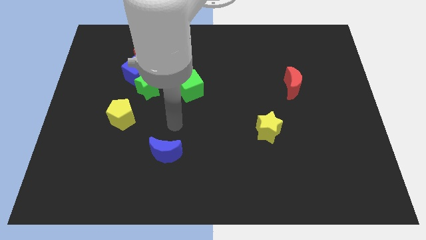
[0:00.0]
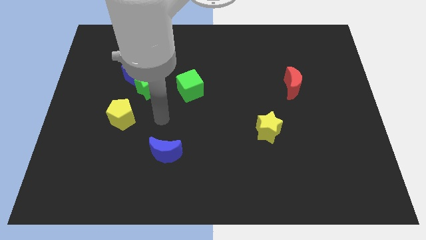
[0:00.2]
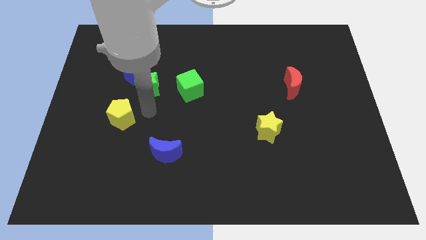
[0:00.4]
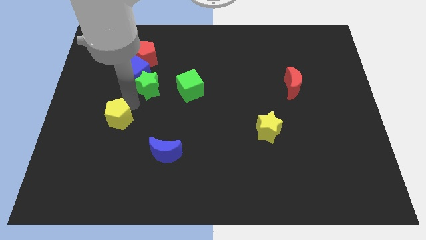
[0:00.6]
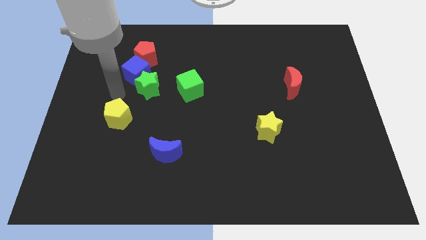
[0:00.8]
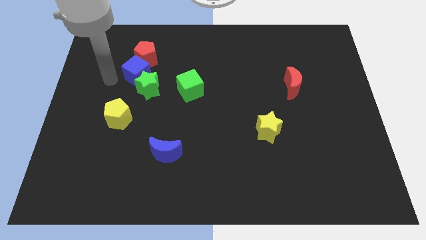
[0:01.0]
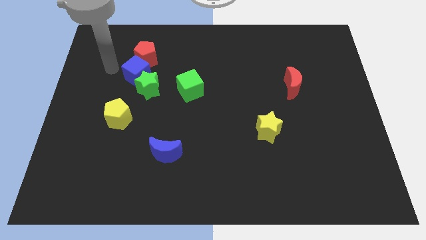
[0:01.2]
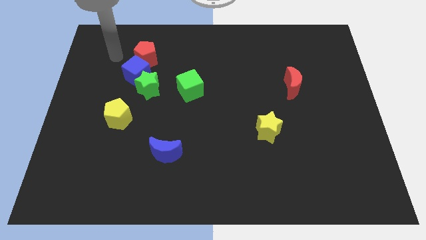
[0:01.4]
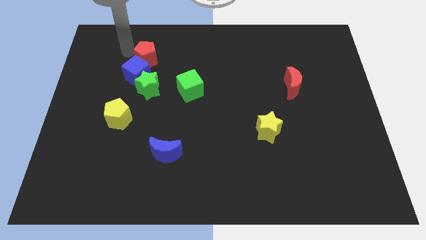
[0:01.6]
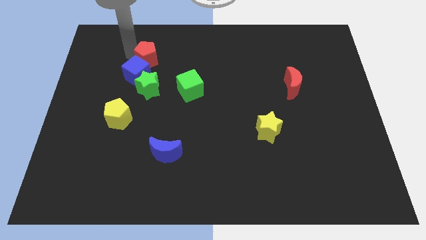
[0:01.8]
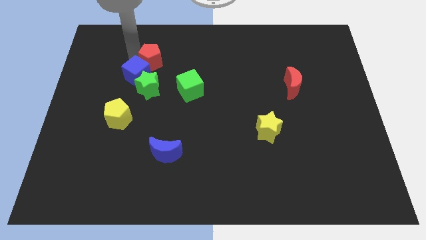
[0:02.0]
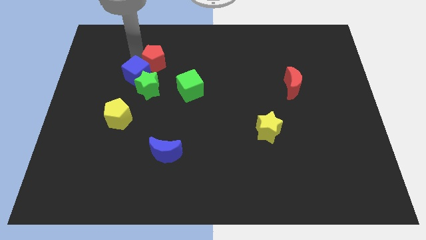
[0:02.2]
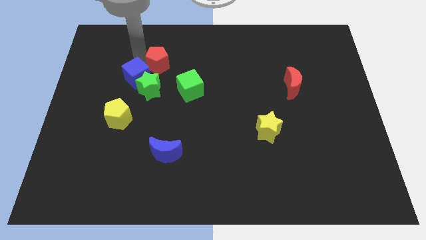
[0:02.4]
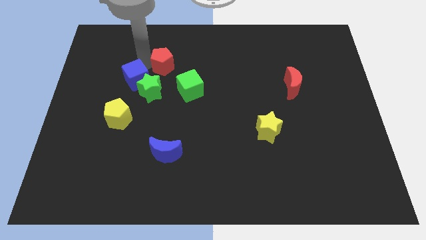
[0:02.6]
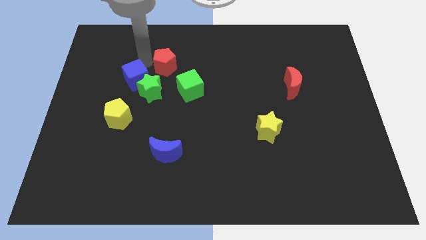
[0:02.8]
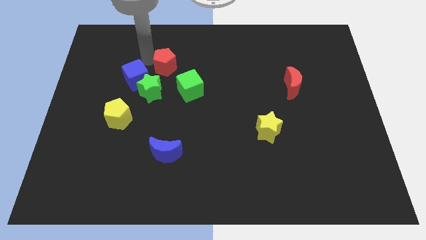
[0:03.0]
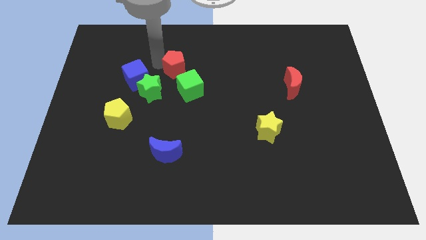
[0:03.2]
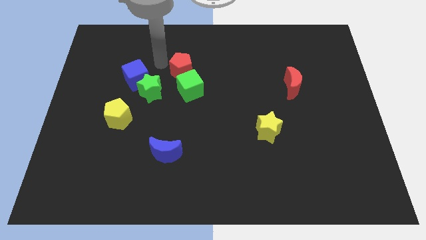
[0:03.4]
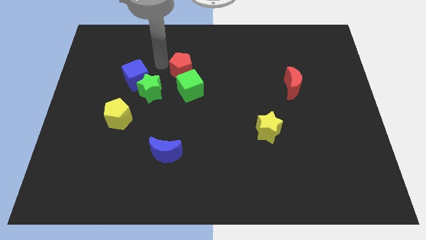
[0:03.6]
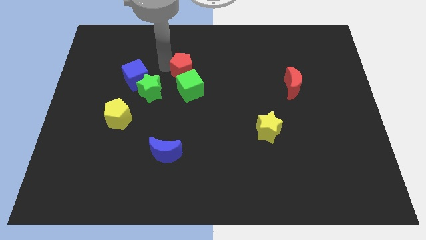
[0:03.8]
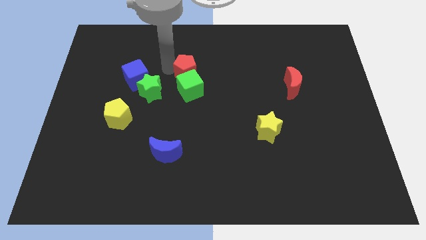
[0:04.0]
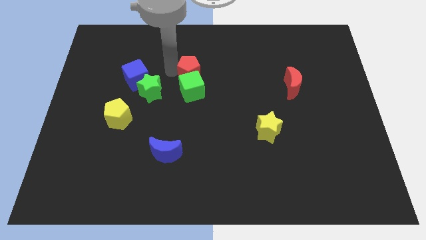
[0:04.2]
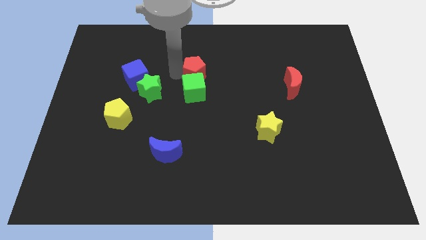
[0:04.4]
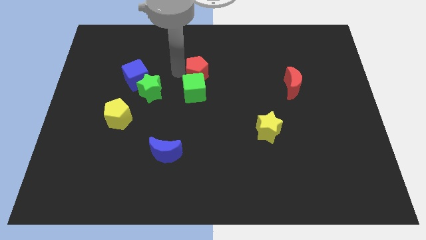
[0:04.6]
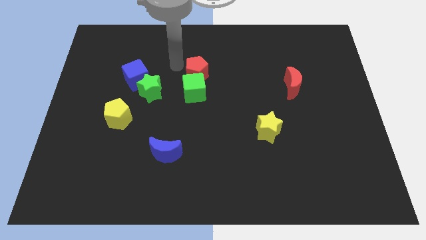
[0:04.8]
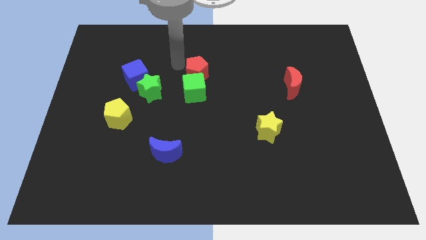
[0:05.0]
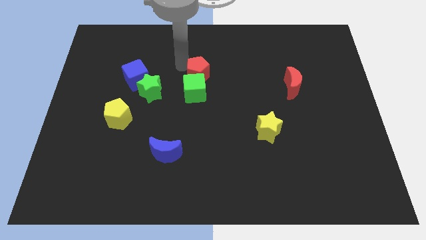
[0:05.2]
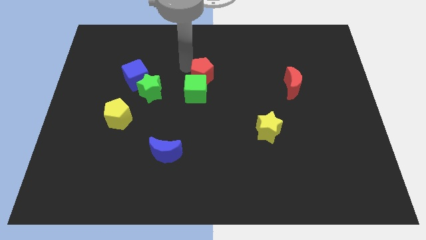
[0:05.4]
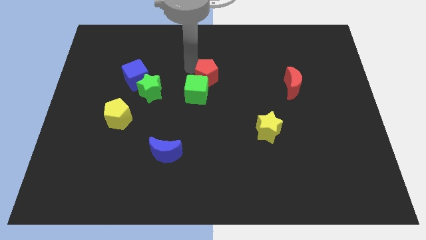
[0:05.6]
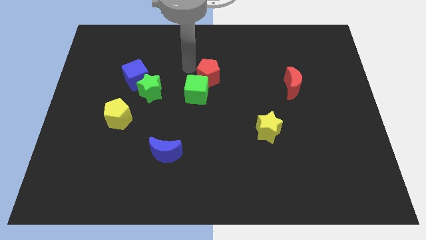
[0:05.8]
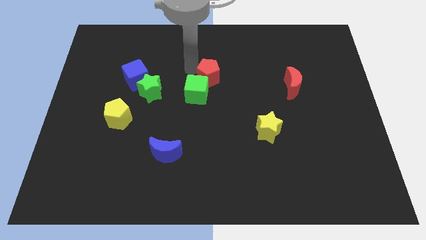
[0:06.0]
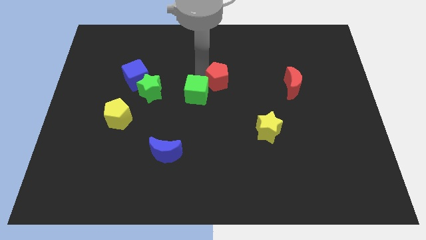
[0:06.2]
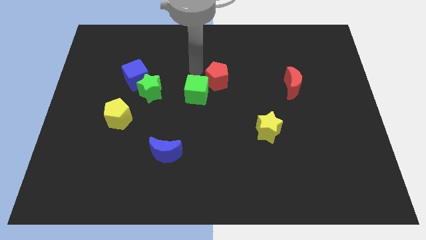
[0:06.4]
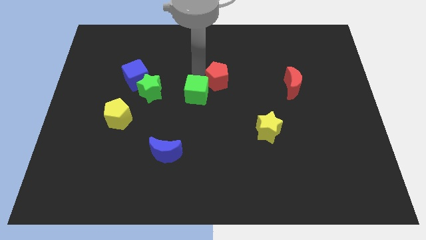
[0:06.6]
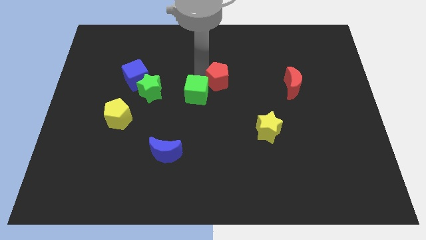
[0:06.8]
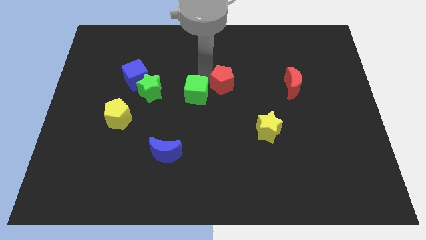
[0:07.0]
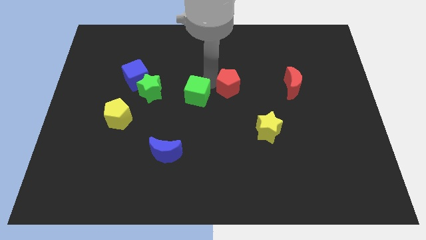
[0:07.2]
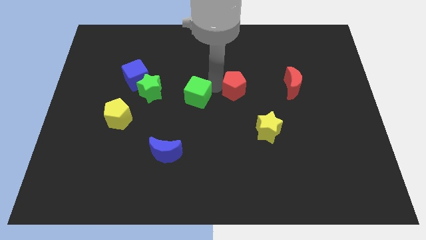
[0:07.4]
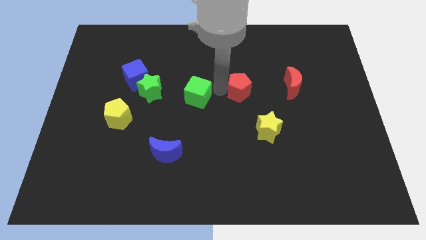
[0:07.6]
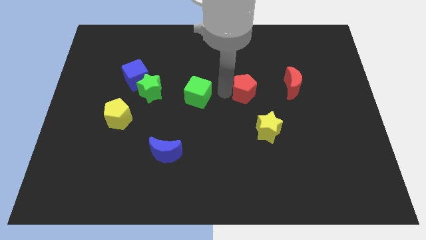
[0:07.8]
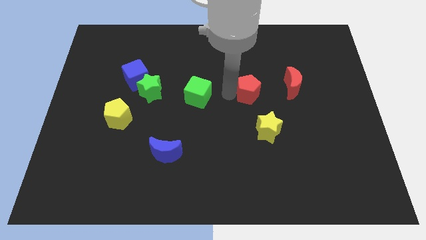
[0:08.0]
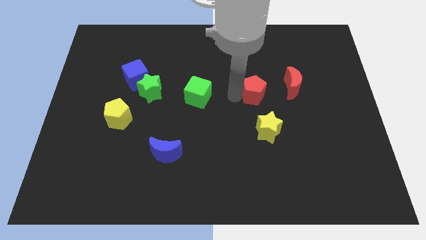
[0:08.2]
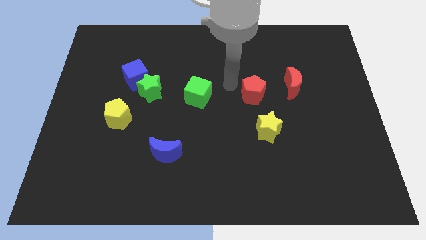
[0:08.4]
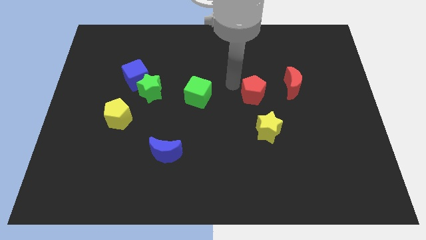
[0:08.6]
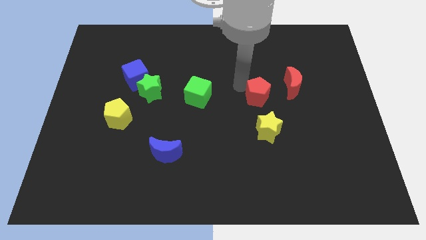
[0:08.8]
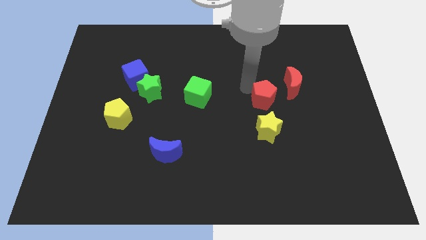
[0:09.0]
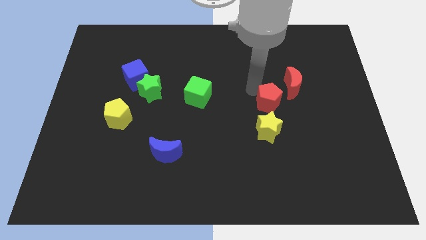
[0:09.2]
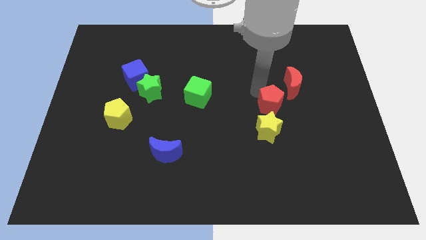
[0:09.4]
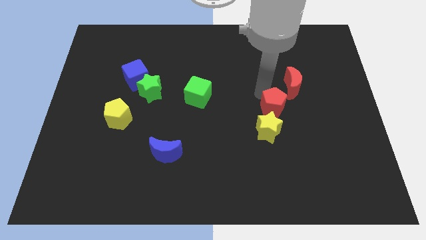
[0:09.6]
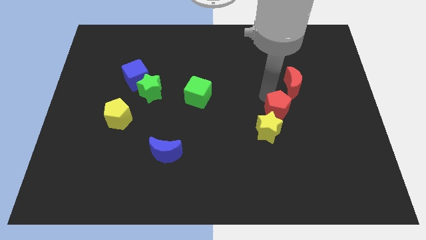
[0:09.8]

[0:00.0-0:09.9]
put the red pentagon below the red moon

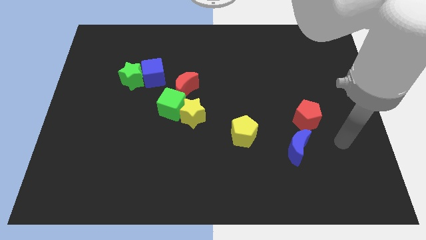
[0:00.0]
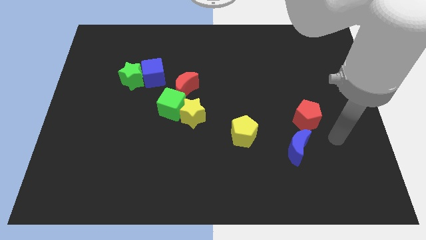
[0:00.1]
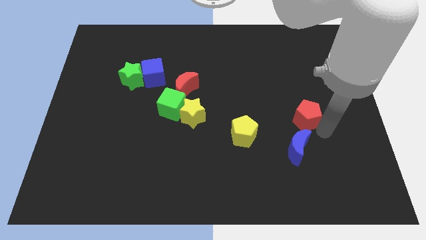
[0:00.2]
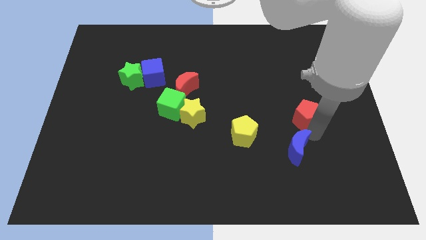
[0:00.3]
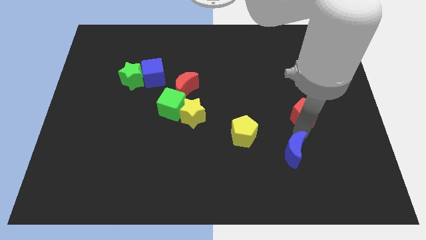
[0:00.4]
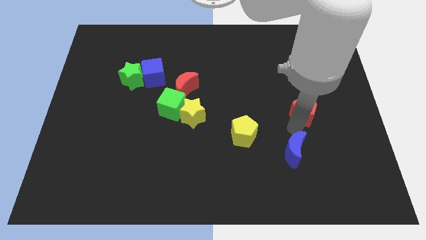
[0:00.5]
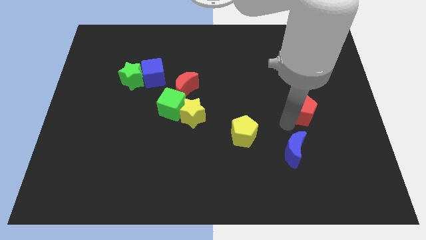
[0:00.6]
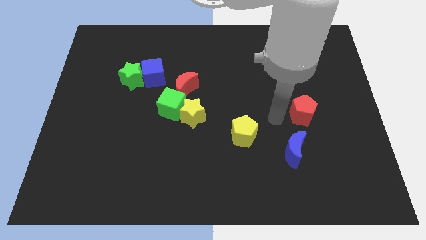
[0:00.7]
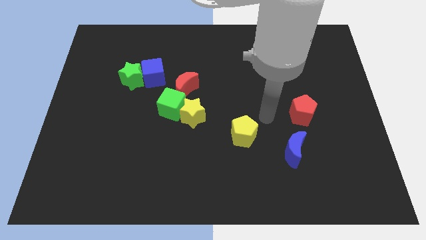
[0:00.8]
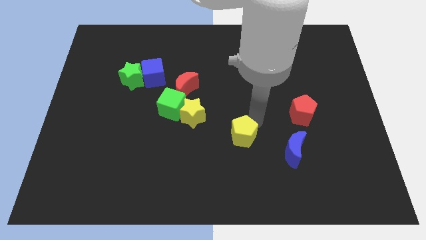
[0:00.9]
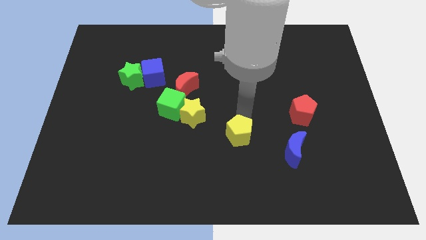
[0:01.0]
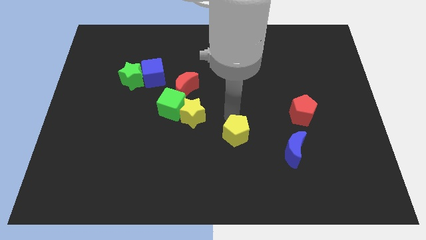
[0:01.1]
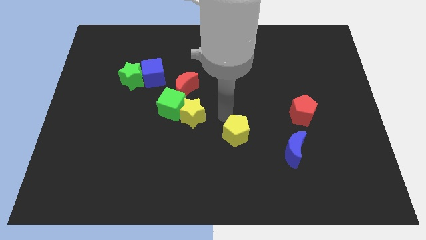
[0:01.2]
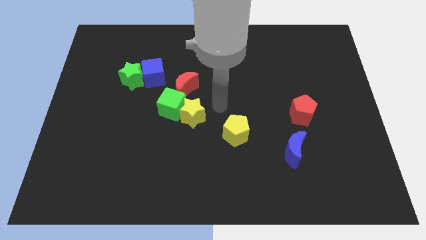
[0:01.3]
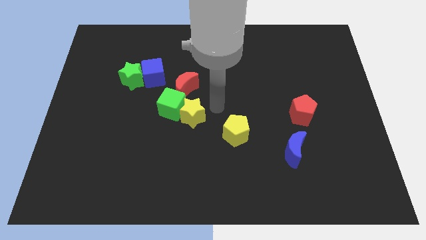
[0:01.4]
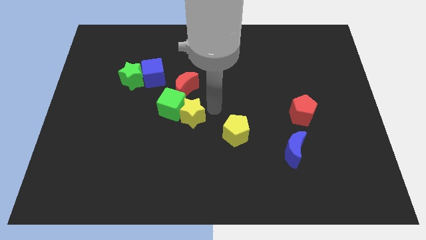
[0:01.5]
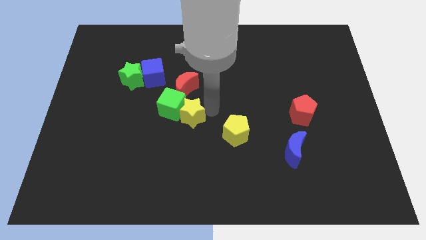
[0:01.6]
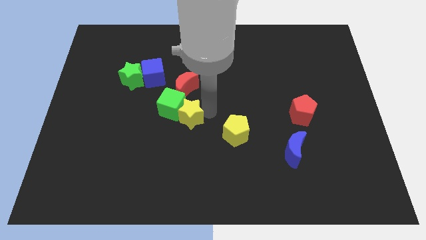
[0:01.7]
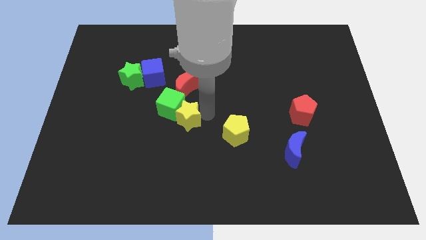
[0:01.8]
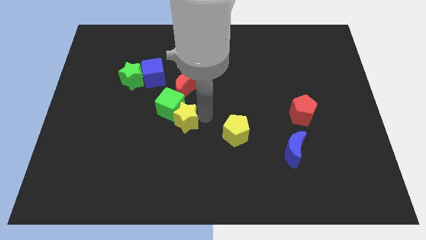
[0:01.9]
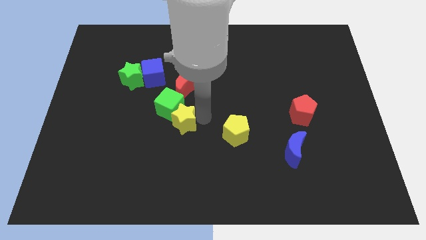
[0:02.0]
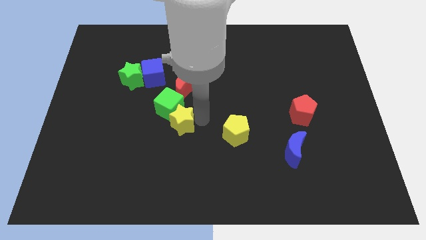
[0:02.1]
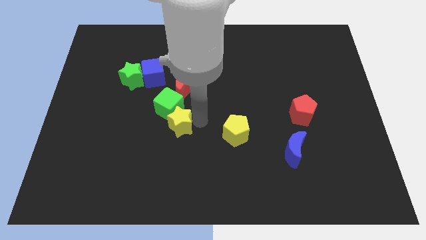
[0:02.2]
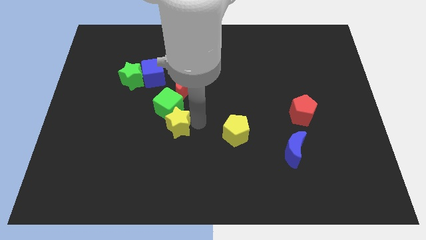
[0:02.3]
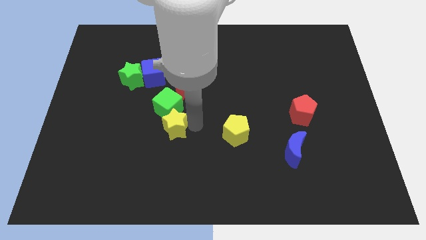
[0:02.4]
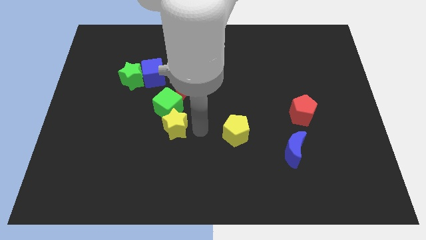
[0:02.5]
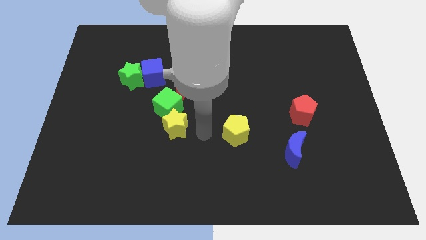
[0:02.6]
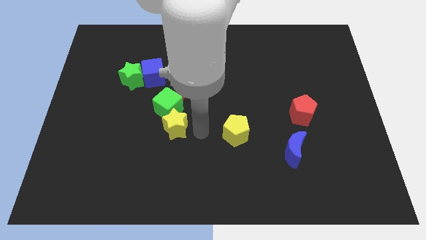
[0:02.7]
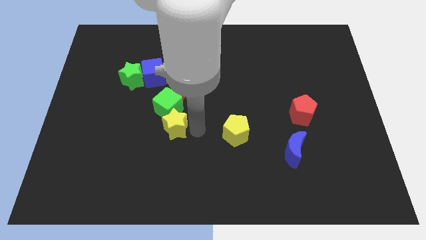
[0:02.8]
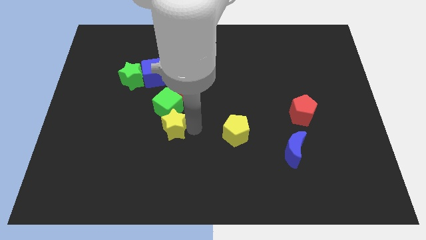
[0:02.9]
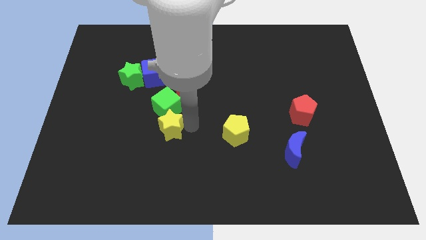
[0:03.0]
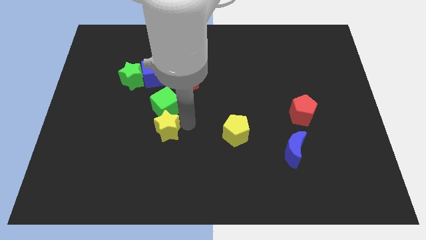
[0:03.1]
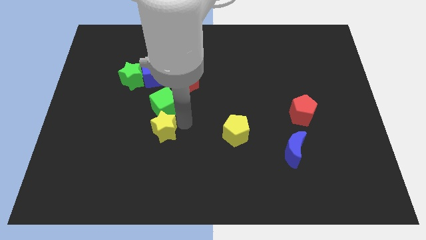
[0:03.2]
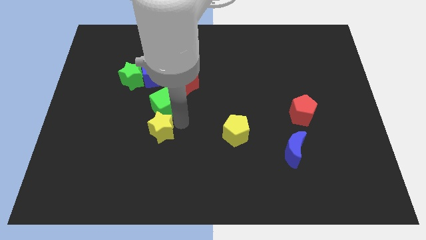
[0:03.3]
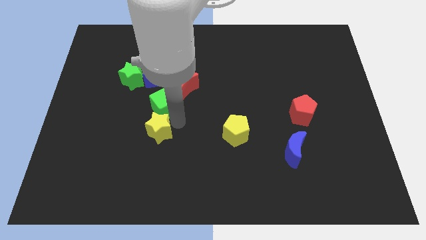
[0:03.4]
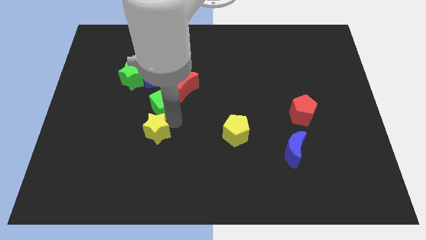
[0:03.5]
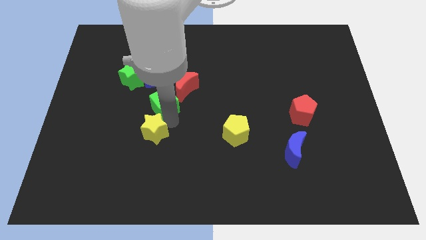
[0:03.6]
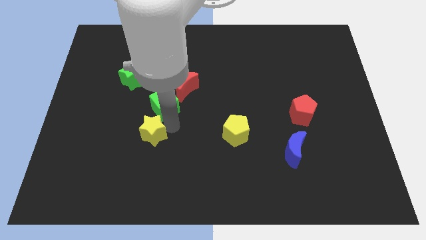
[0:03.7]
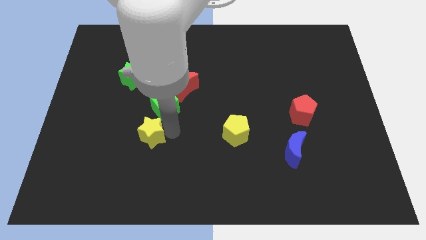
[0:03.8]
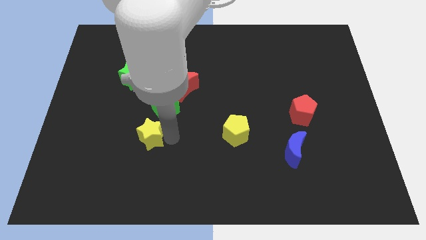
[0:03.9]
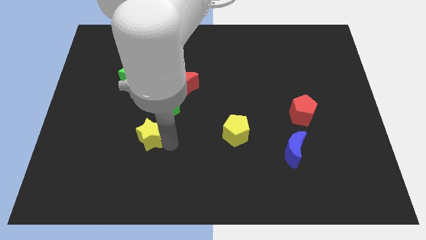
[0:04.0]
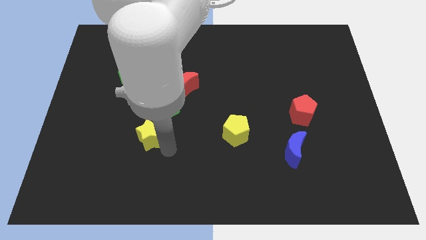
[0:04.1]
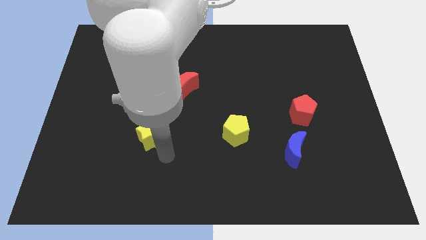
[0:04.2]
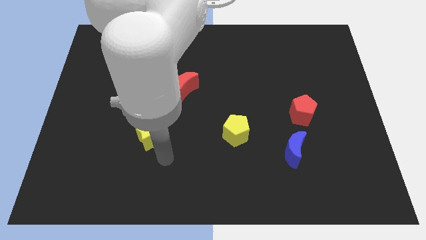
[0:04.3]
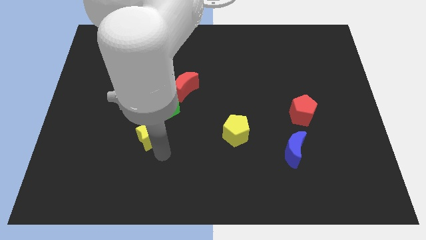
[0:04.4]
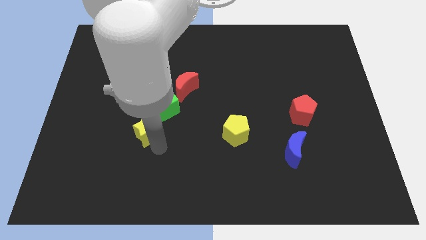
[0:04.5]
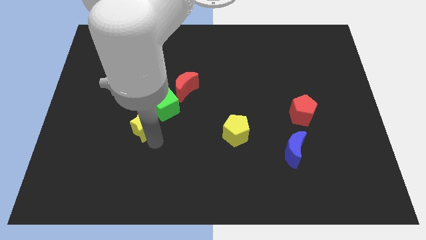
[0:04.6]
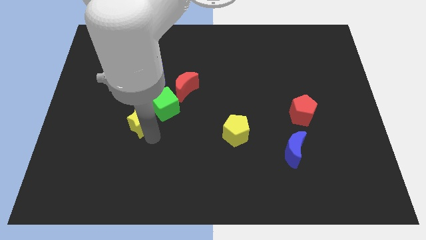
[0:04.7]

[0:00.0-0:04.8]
put the yellow star to the bottom side of the green star
